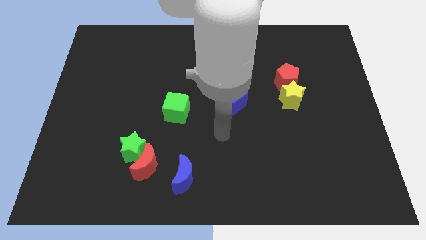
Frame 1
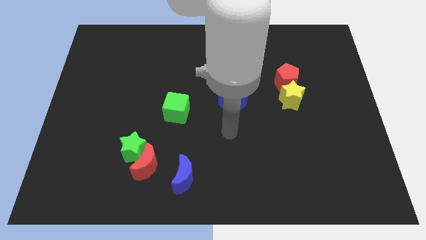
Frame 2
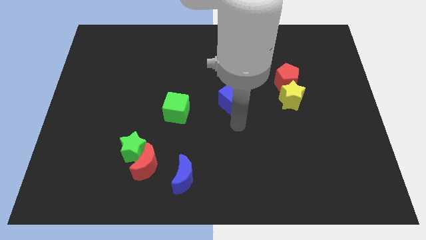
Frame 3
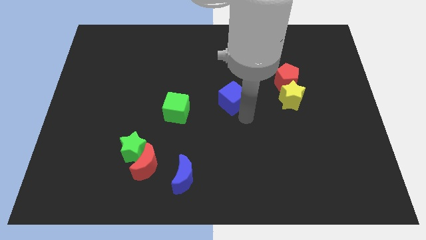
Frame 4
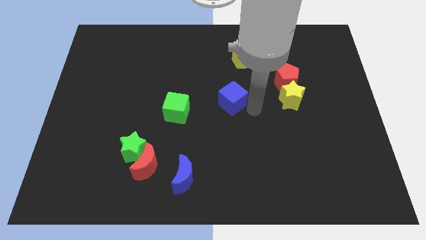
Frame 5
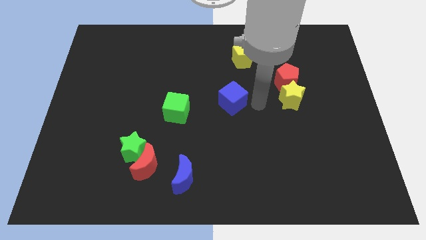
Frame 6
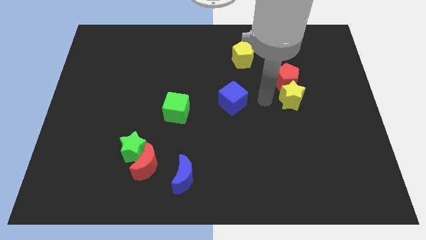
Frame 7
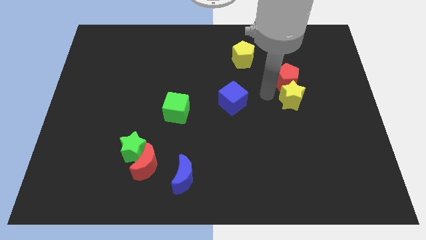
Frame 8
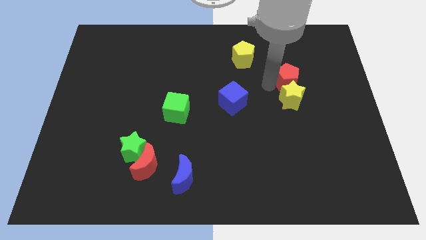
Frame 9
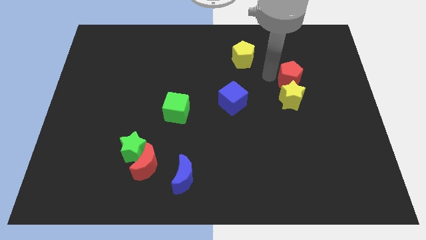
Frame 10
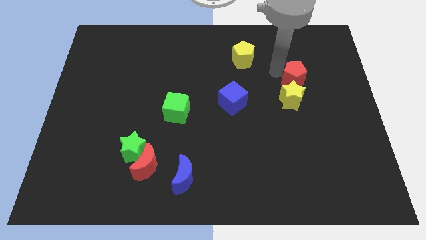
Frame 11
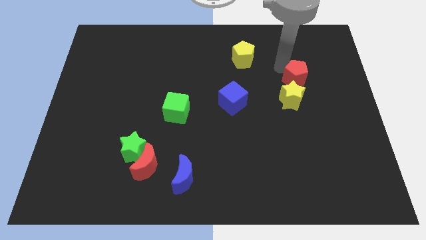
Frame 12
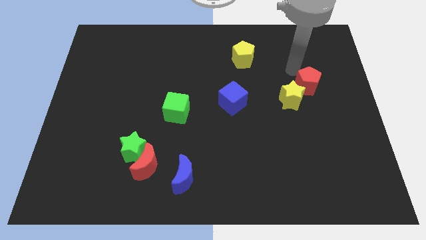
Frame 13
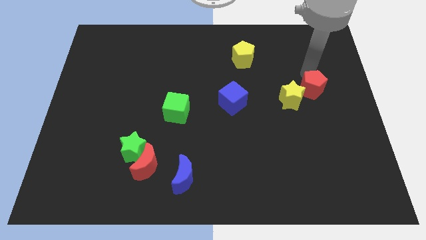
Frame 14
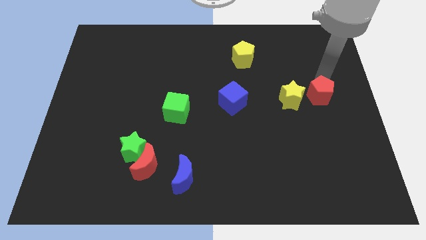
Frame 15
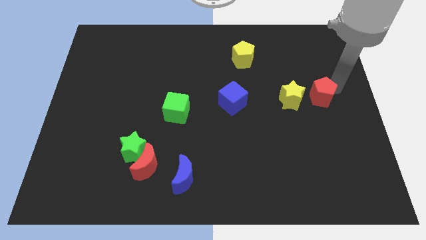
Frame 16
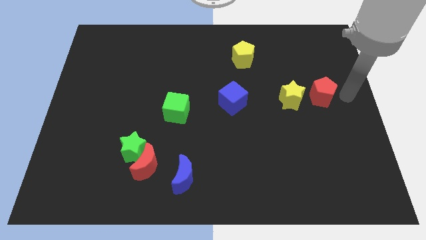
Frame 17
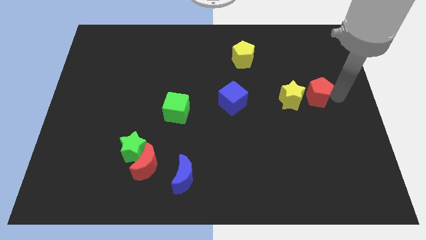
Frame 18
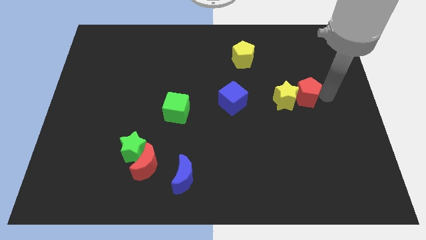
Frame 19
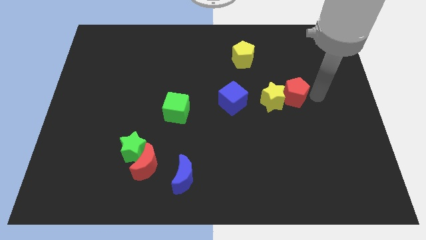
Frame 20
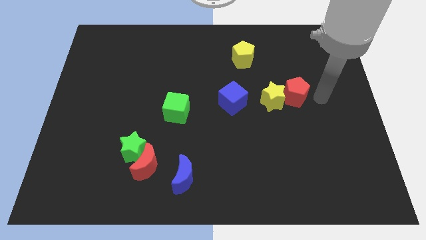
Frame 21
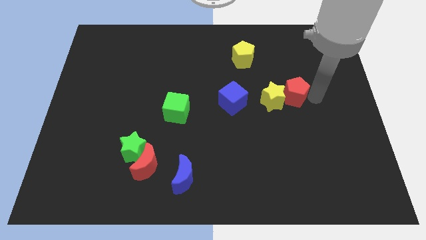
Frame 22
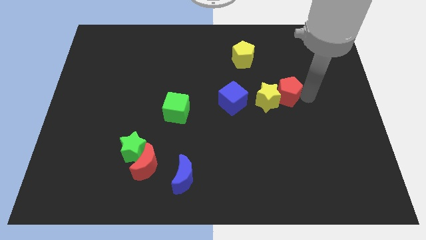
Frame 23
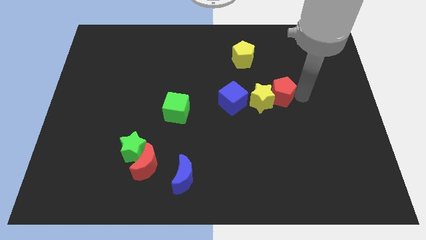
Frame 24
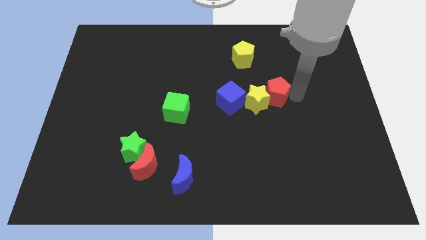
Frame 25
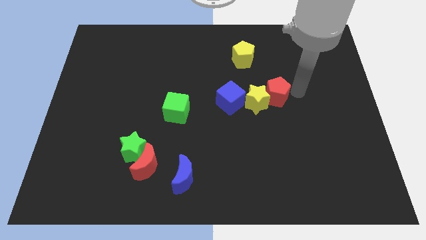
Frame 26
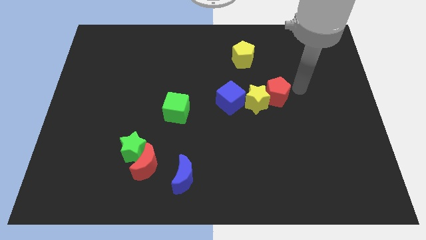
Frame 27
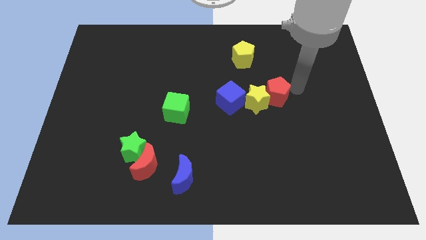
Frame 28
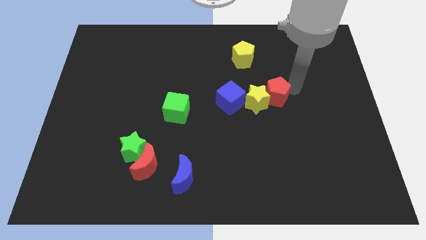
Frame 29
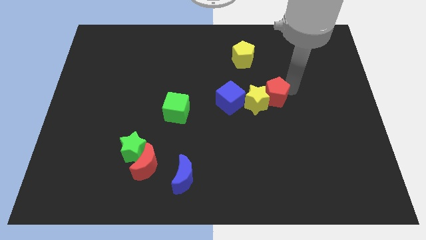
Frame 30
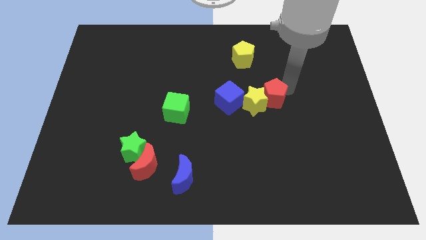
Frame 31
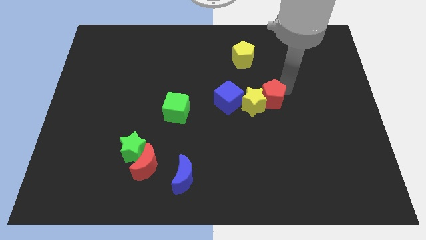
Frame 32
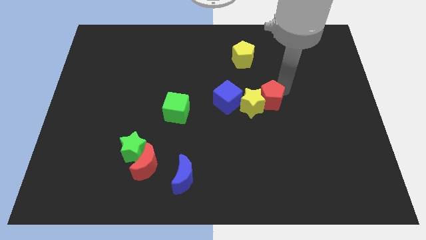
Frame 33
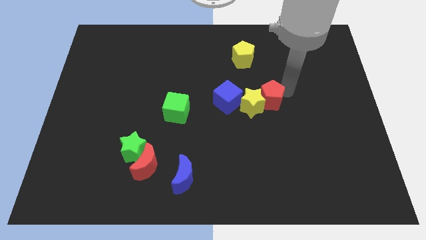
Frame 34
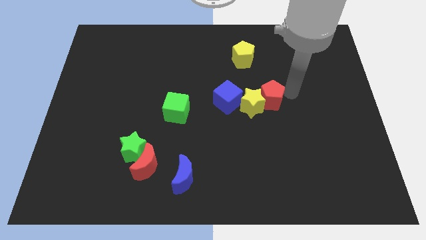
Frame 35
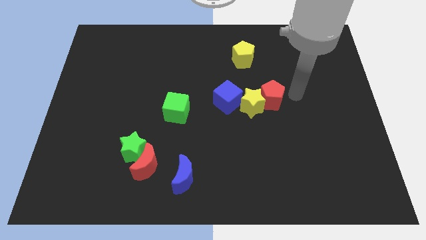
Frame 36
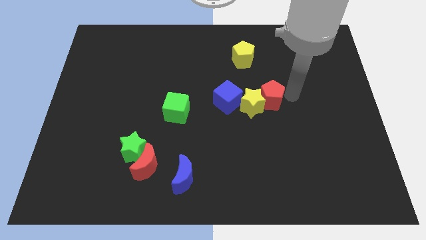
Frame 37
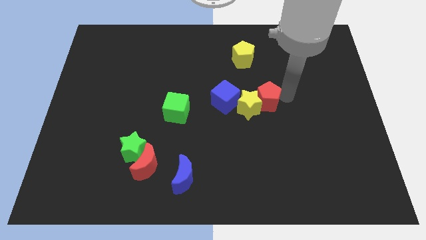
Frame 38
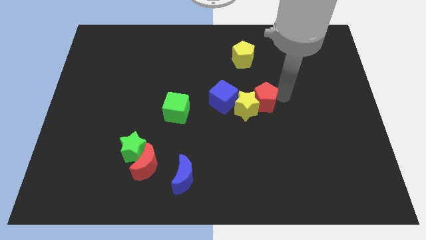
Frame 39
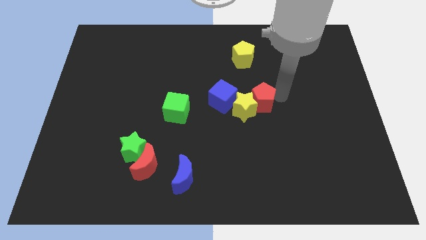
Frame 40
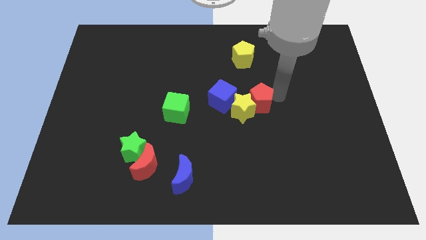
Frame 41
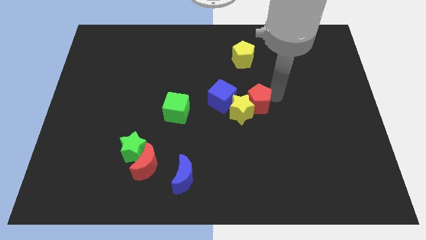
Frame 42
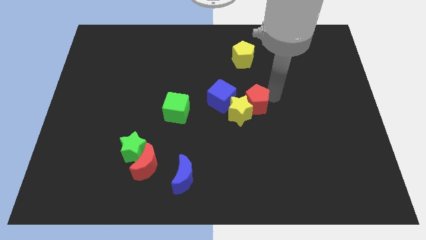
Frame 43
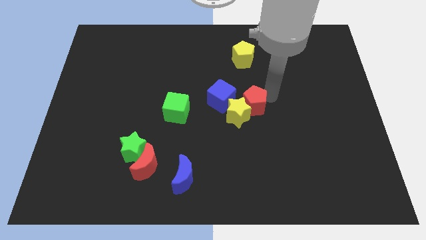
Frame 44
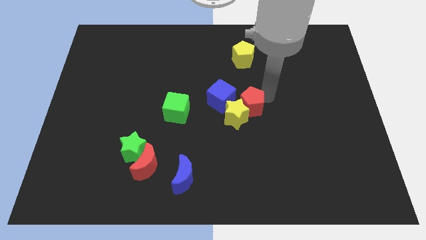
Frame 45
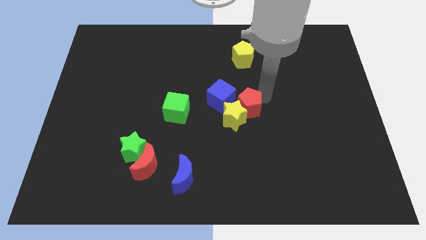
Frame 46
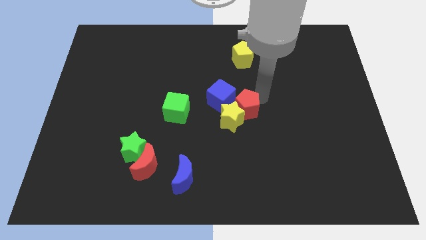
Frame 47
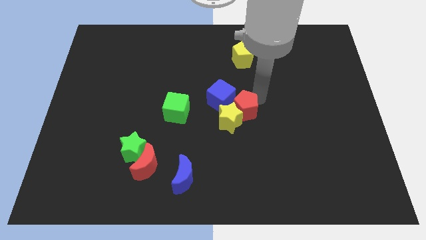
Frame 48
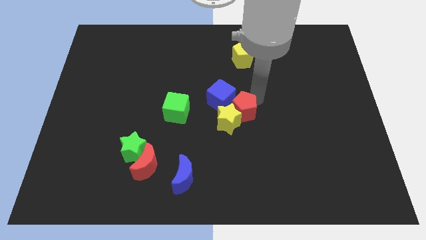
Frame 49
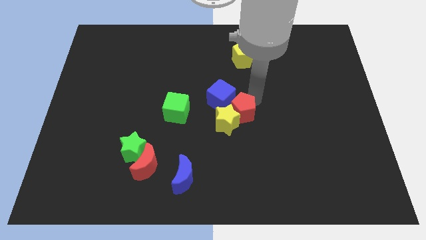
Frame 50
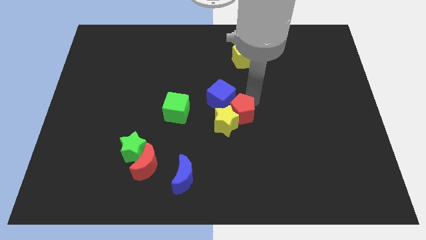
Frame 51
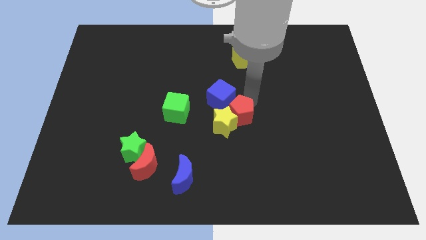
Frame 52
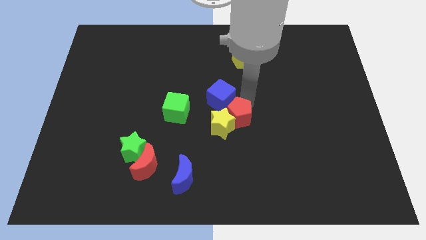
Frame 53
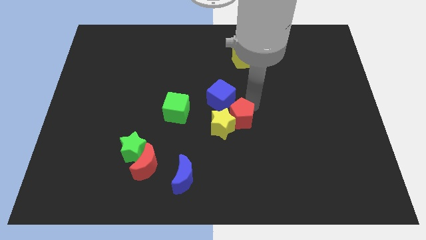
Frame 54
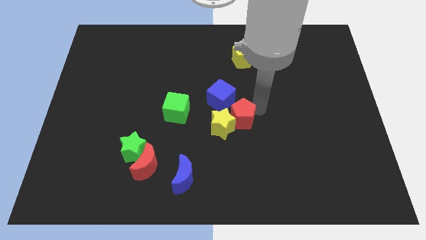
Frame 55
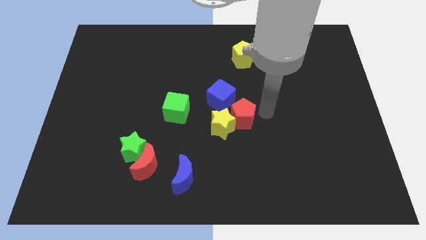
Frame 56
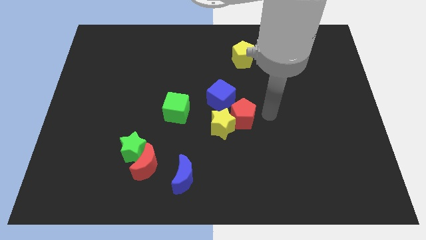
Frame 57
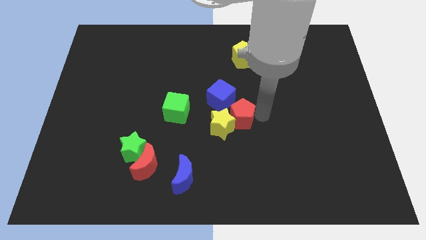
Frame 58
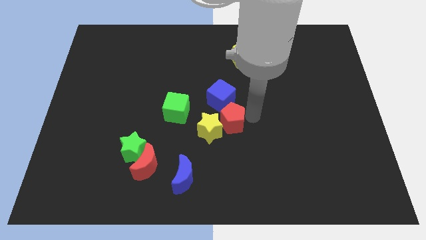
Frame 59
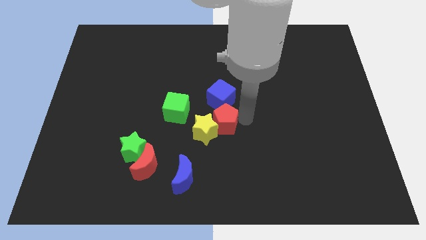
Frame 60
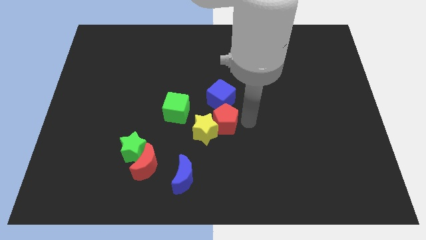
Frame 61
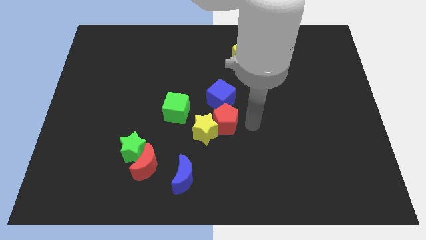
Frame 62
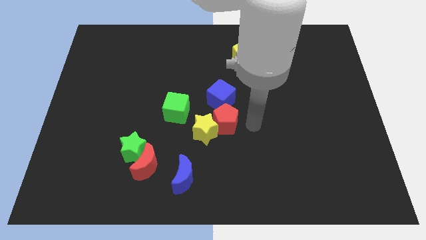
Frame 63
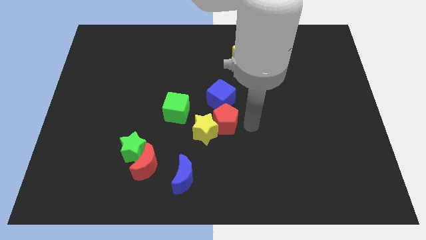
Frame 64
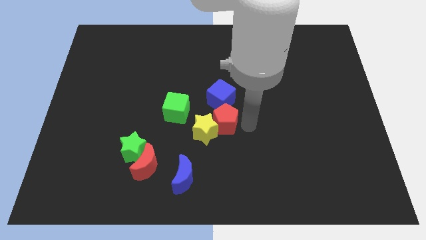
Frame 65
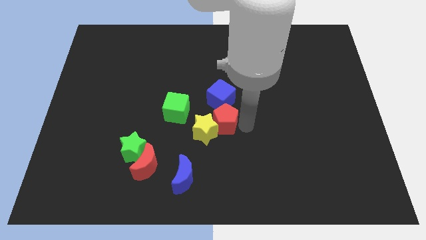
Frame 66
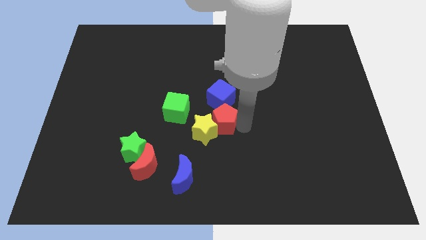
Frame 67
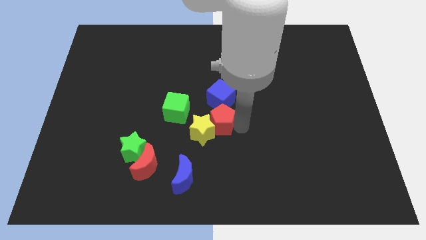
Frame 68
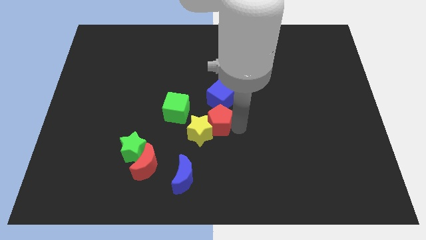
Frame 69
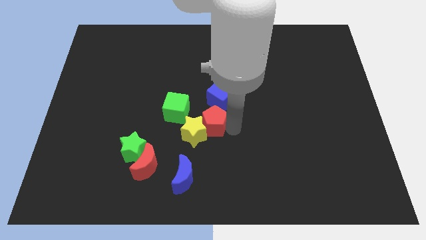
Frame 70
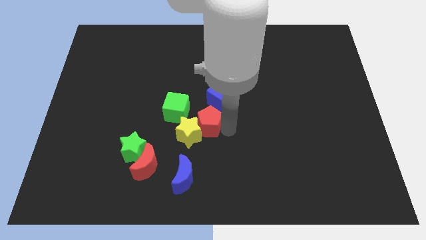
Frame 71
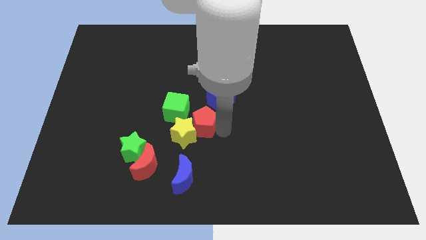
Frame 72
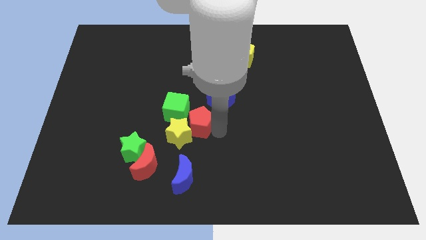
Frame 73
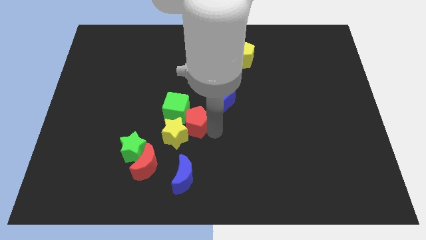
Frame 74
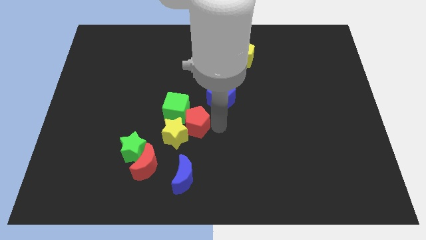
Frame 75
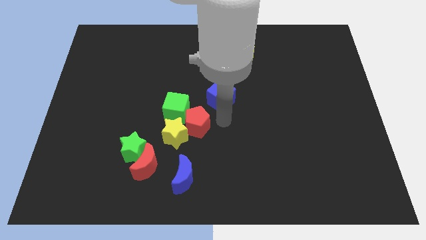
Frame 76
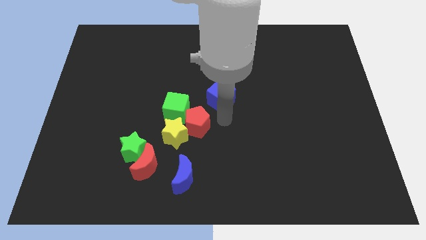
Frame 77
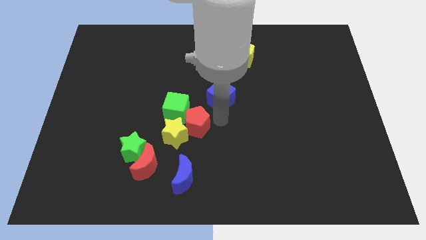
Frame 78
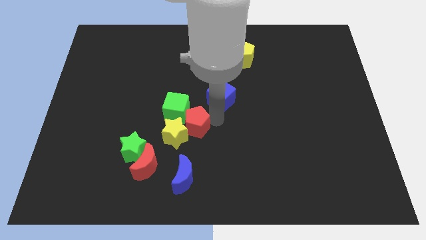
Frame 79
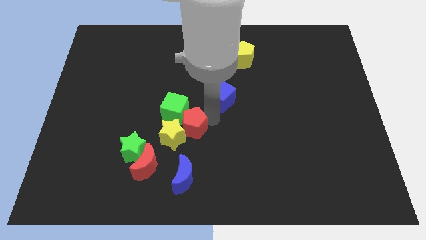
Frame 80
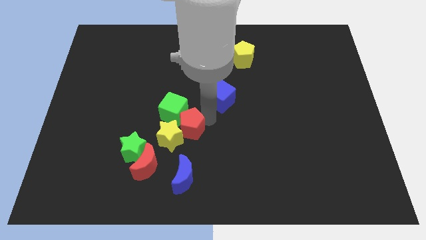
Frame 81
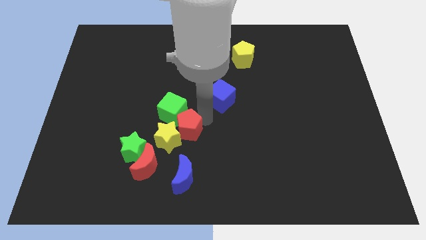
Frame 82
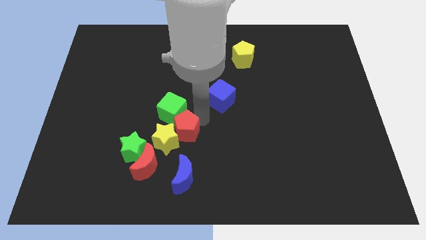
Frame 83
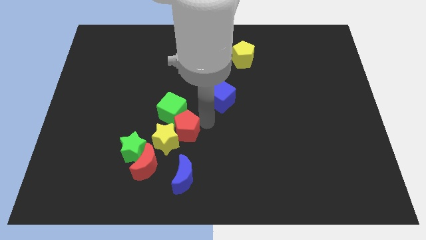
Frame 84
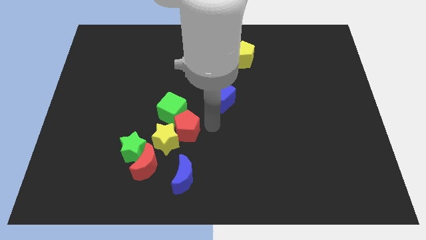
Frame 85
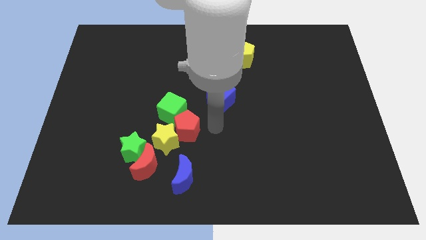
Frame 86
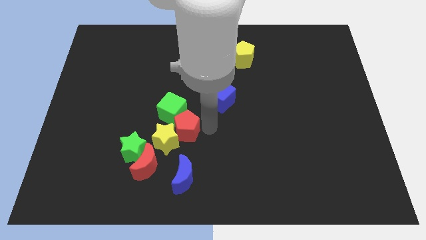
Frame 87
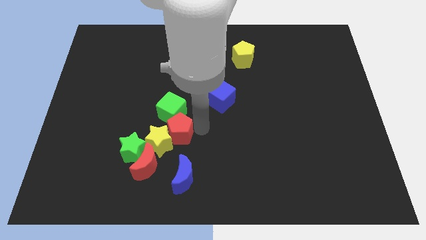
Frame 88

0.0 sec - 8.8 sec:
slide the red pentagon to the top right of the green star
